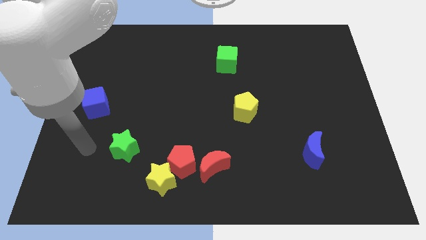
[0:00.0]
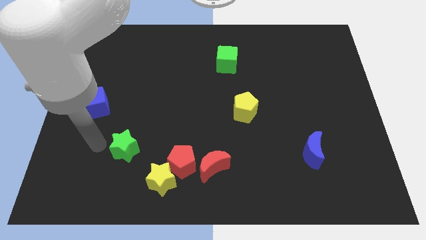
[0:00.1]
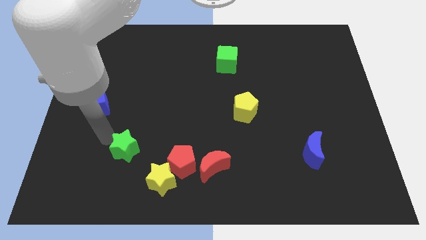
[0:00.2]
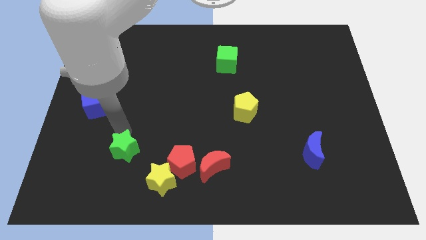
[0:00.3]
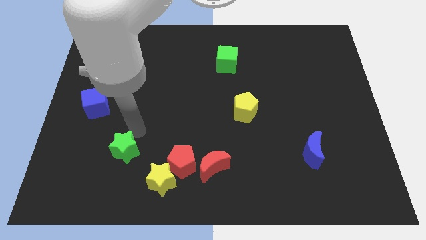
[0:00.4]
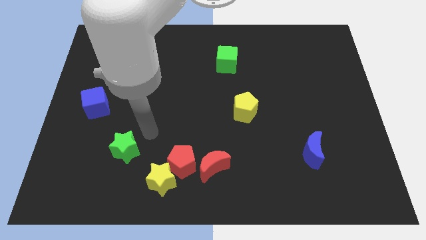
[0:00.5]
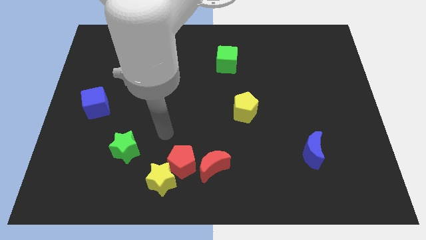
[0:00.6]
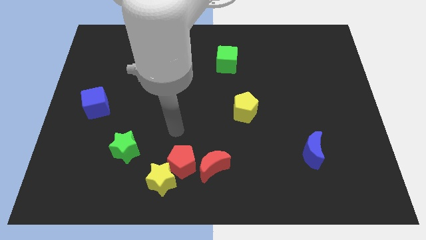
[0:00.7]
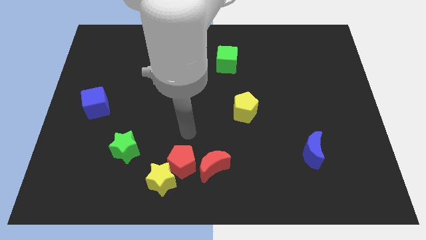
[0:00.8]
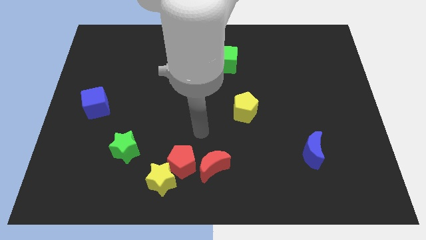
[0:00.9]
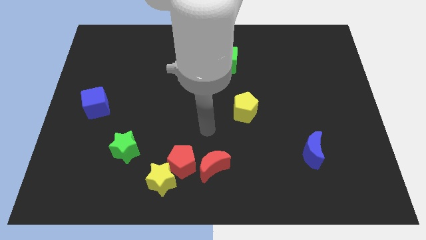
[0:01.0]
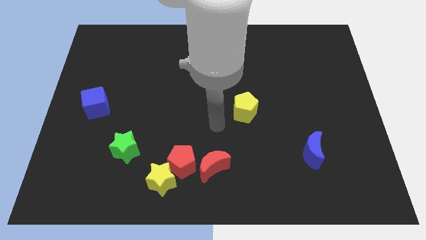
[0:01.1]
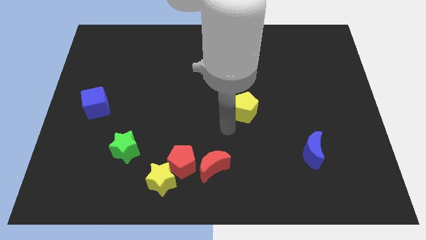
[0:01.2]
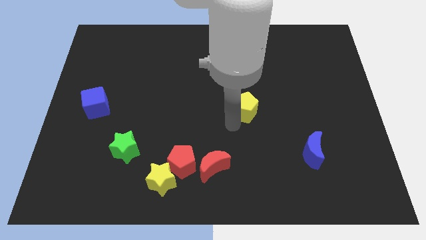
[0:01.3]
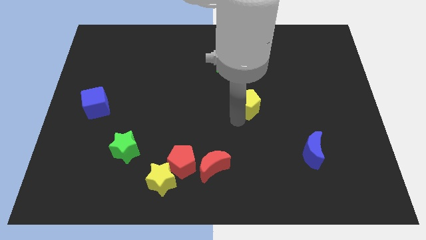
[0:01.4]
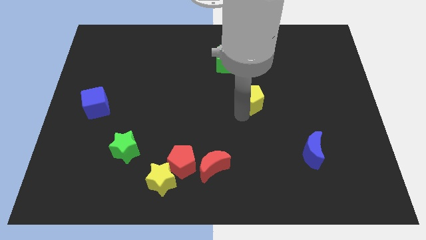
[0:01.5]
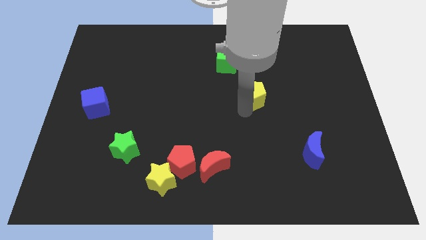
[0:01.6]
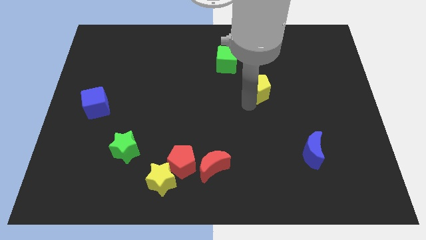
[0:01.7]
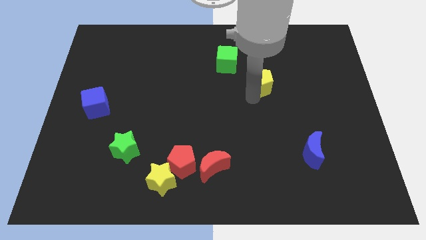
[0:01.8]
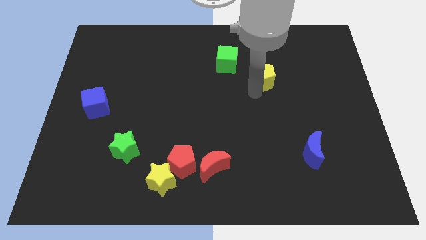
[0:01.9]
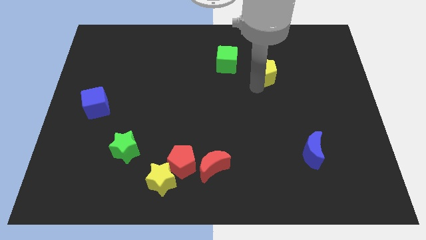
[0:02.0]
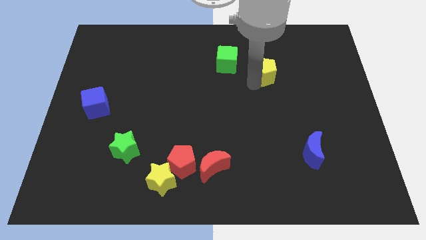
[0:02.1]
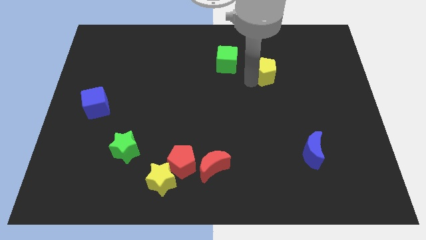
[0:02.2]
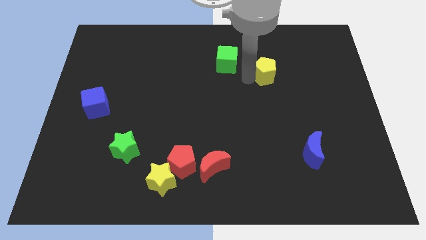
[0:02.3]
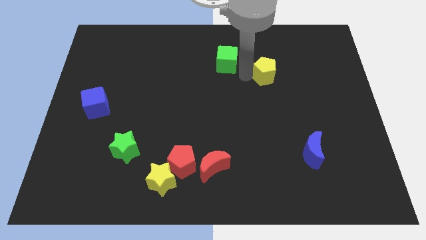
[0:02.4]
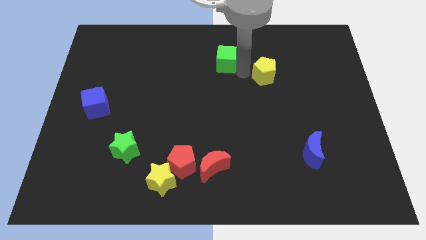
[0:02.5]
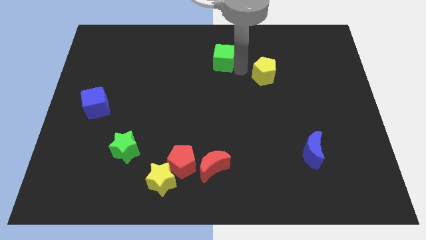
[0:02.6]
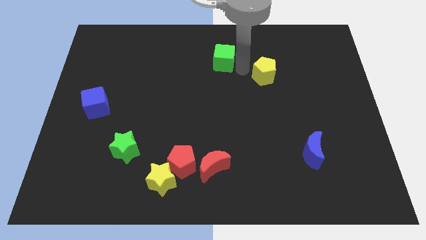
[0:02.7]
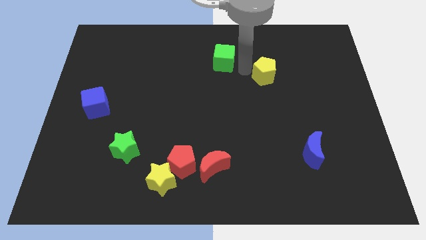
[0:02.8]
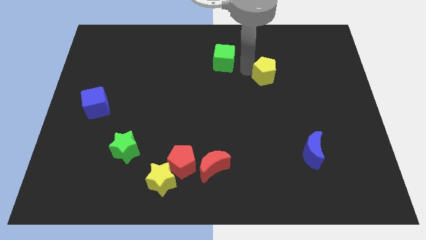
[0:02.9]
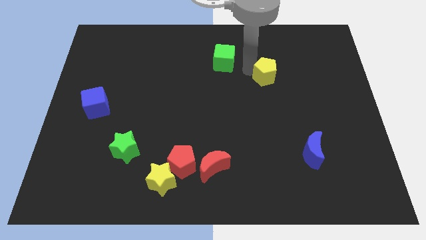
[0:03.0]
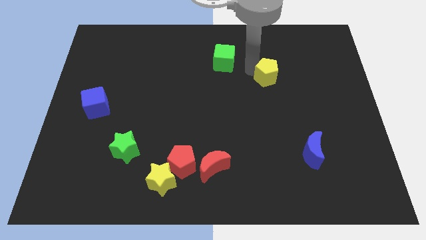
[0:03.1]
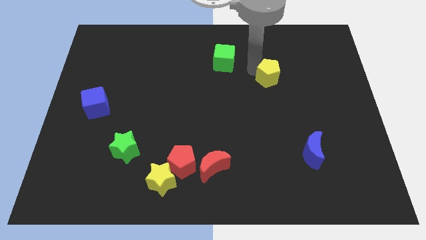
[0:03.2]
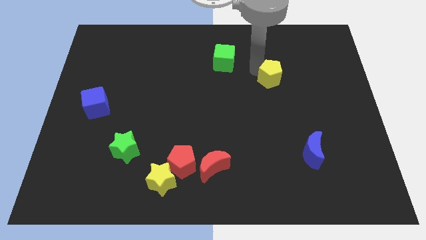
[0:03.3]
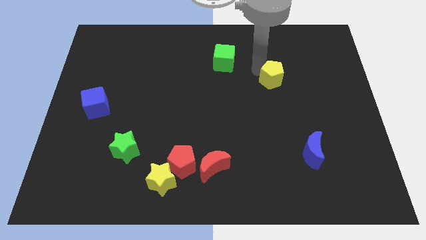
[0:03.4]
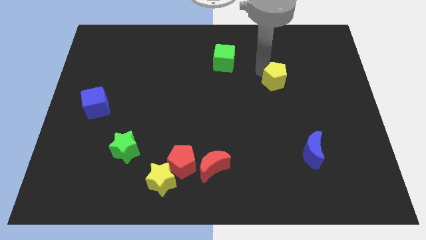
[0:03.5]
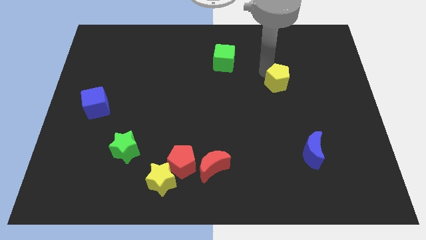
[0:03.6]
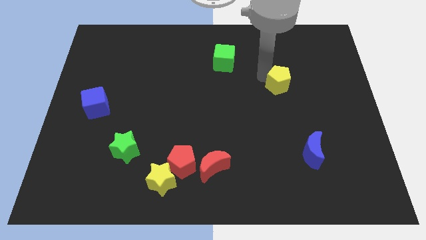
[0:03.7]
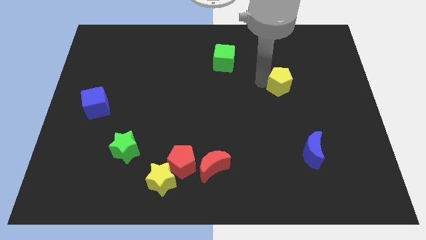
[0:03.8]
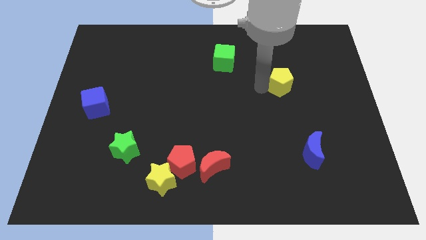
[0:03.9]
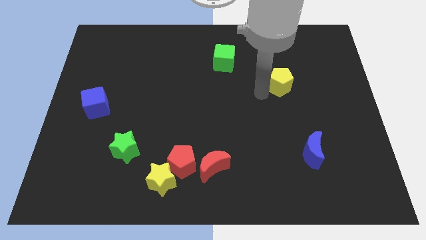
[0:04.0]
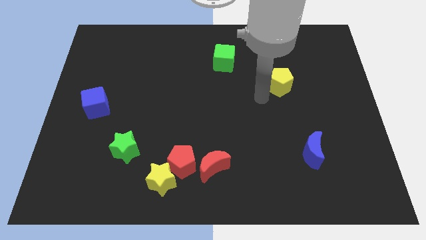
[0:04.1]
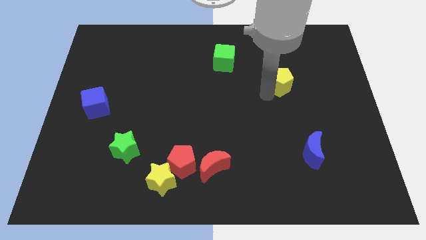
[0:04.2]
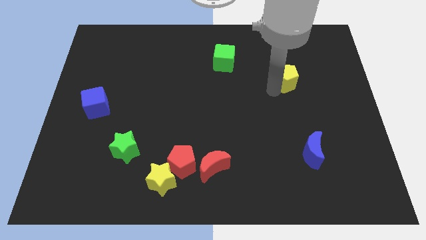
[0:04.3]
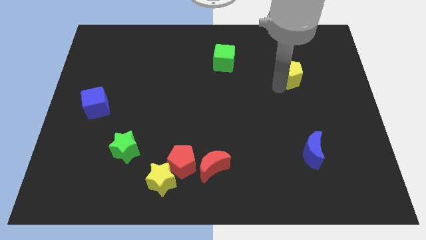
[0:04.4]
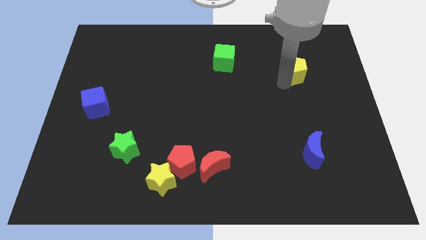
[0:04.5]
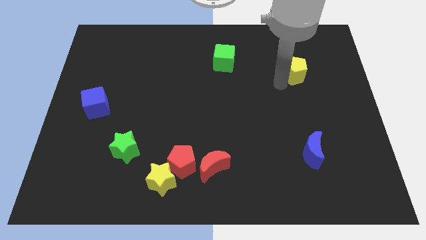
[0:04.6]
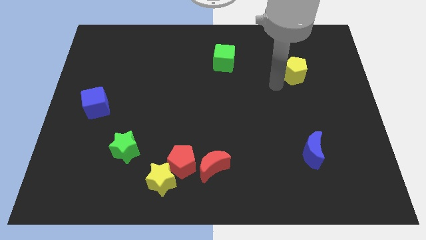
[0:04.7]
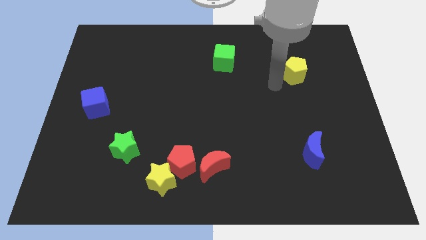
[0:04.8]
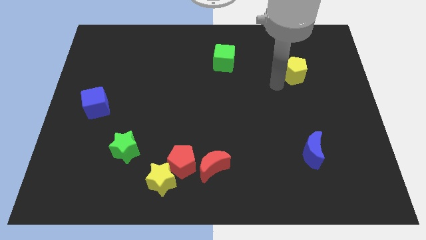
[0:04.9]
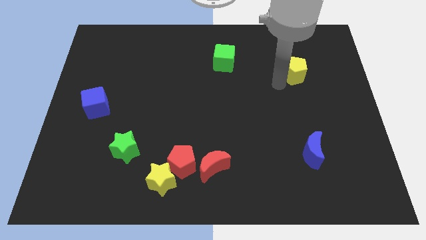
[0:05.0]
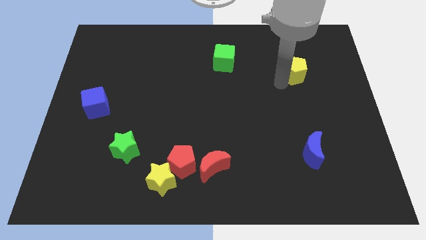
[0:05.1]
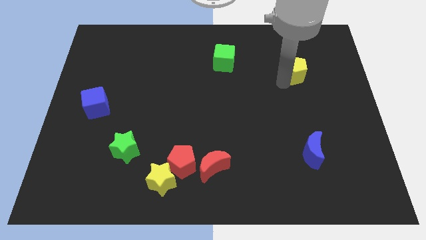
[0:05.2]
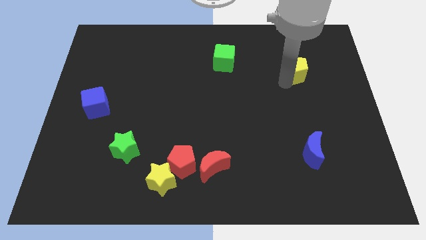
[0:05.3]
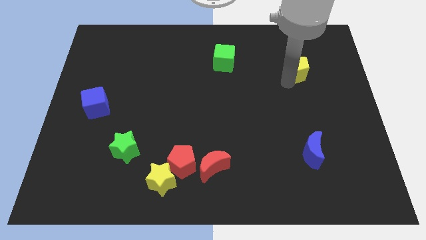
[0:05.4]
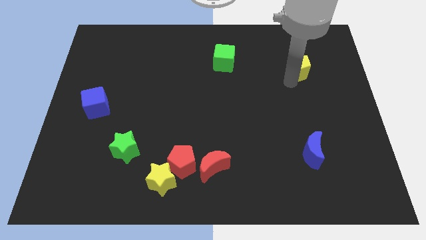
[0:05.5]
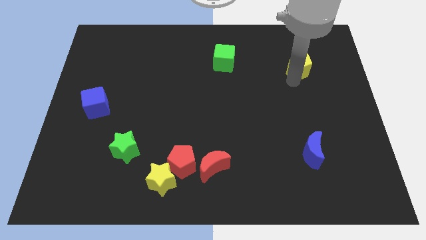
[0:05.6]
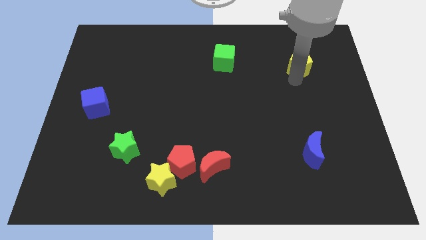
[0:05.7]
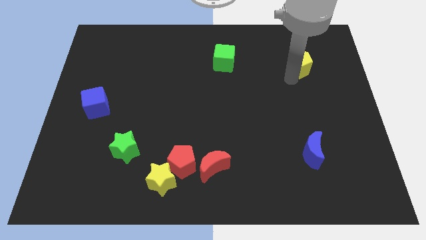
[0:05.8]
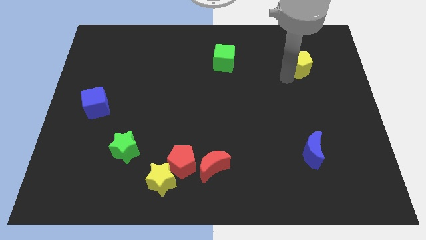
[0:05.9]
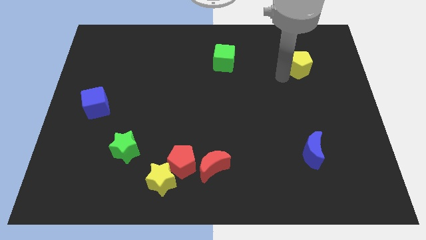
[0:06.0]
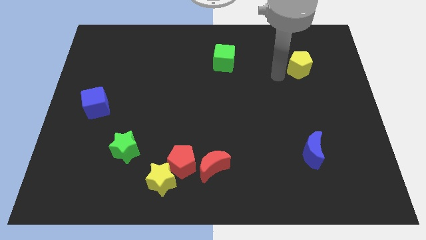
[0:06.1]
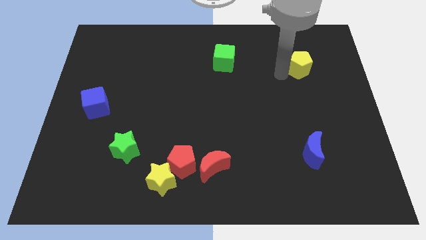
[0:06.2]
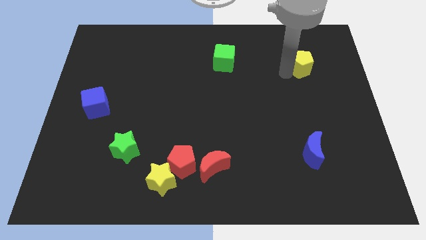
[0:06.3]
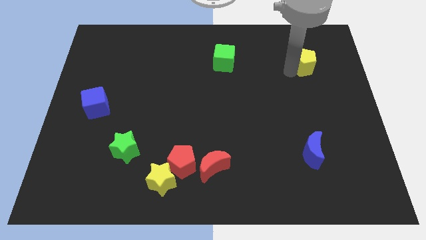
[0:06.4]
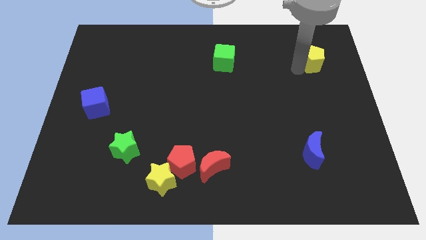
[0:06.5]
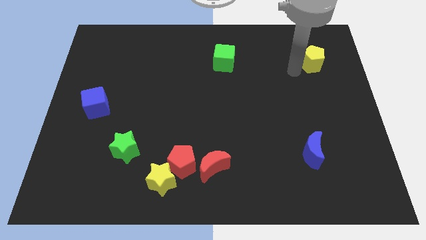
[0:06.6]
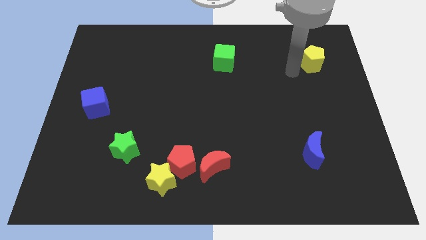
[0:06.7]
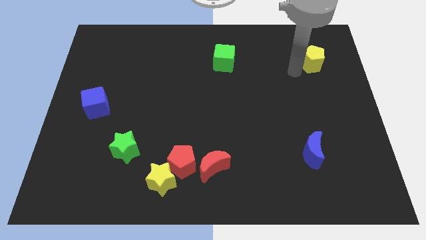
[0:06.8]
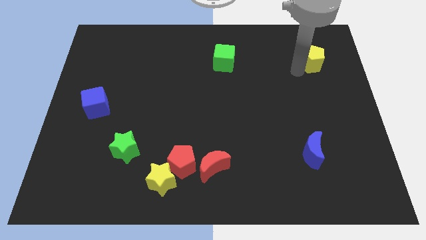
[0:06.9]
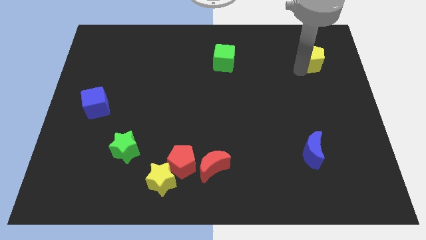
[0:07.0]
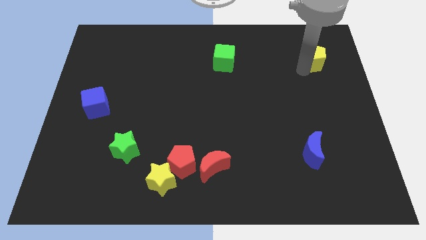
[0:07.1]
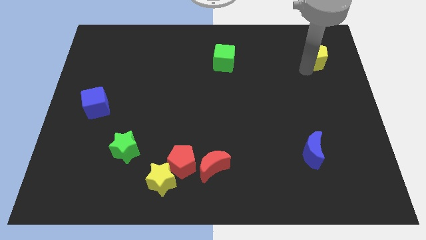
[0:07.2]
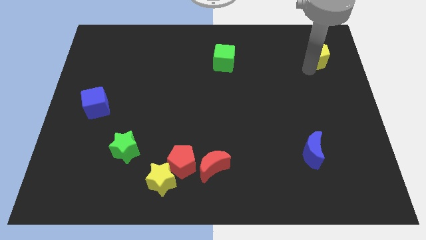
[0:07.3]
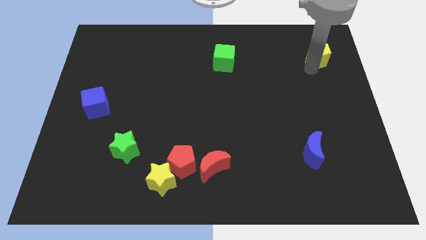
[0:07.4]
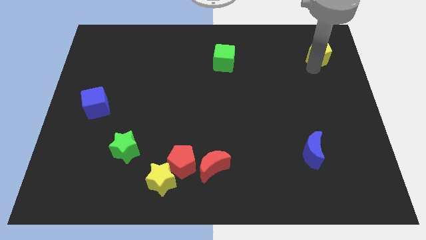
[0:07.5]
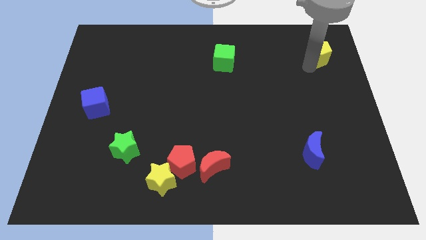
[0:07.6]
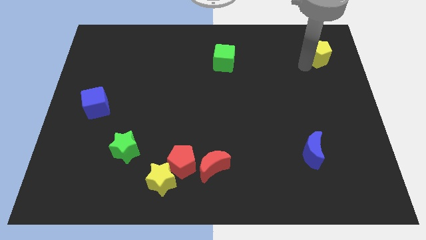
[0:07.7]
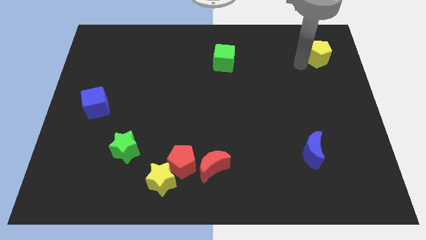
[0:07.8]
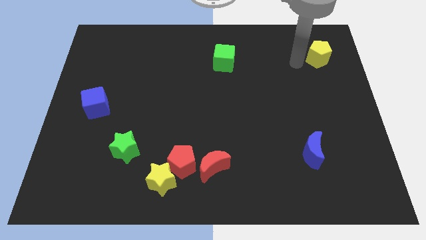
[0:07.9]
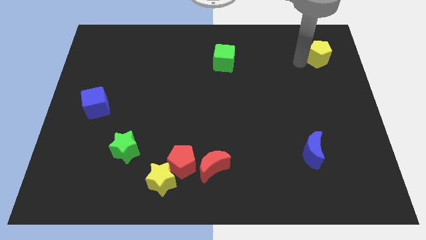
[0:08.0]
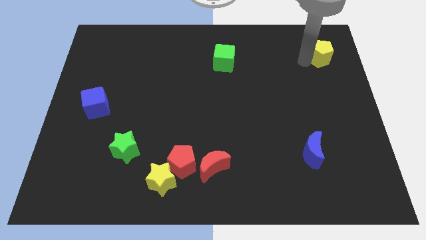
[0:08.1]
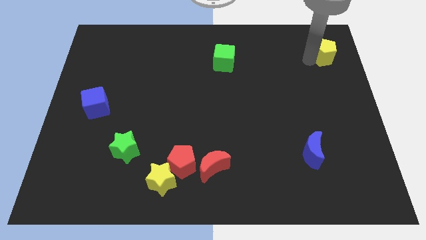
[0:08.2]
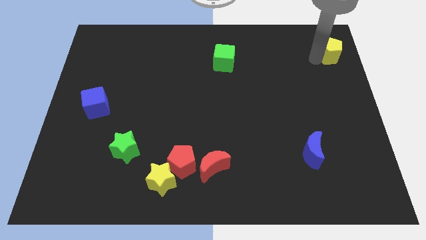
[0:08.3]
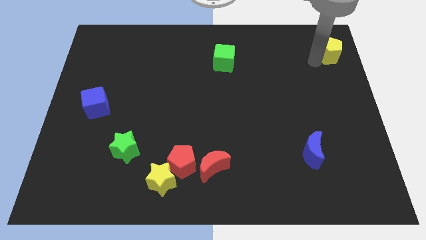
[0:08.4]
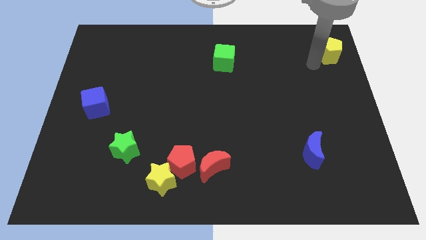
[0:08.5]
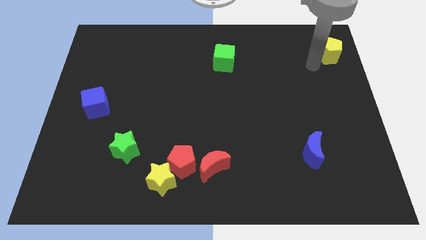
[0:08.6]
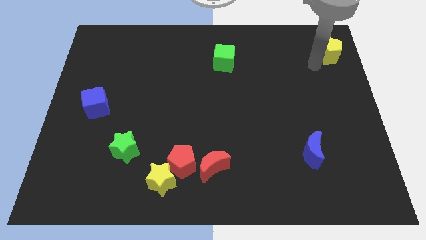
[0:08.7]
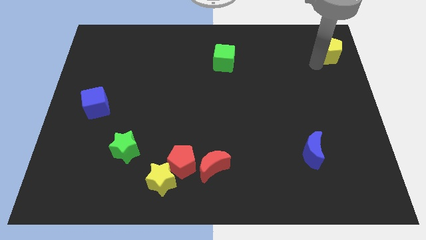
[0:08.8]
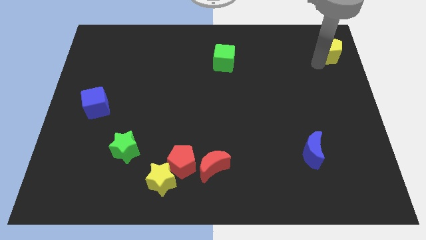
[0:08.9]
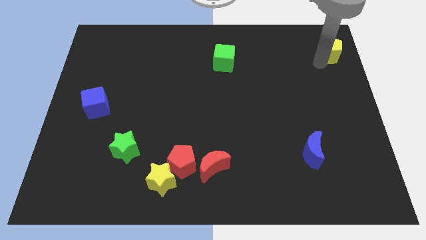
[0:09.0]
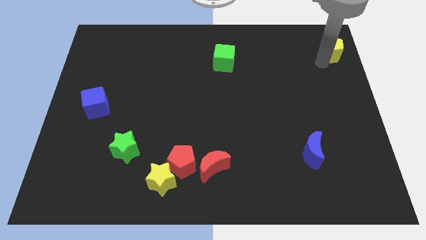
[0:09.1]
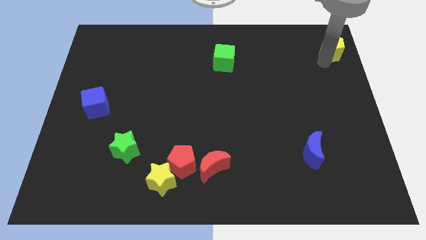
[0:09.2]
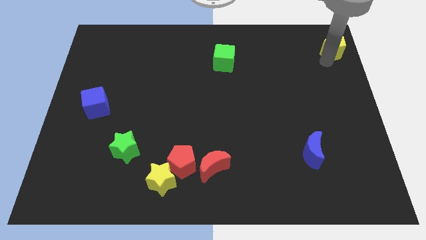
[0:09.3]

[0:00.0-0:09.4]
push the yellow pentagon to the top right corner
